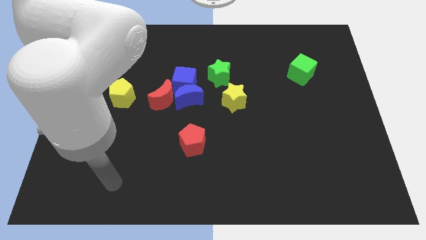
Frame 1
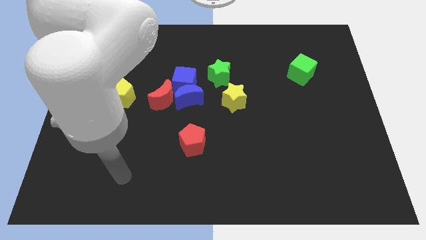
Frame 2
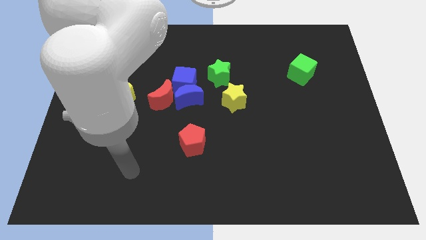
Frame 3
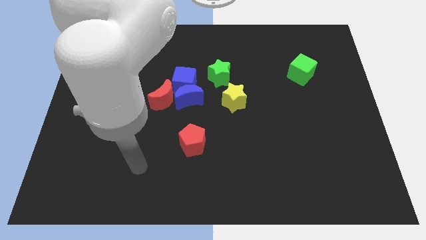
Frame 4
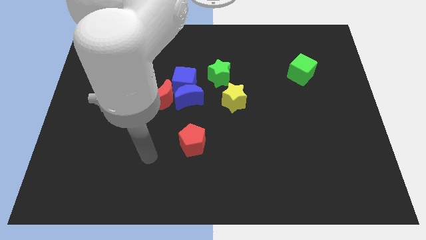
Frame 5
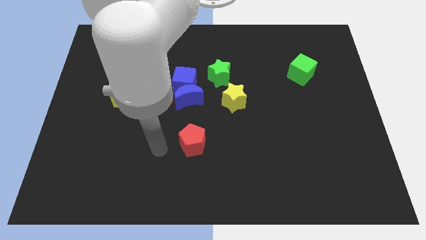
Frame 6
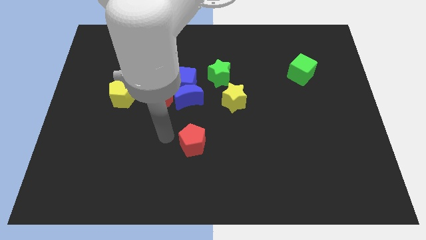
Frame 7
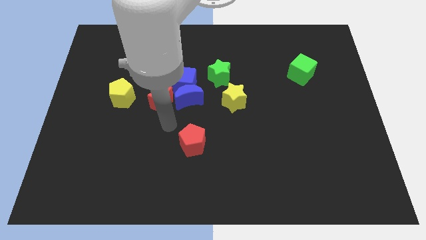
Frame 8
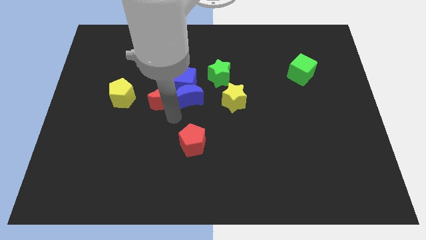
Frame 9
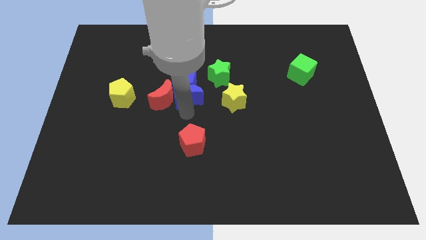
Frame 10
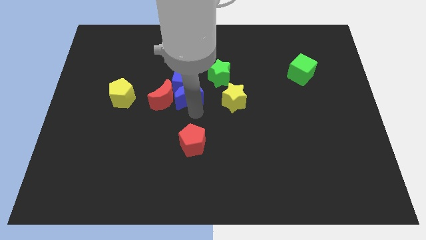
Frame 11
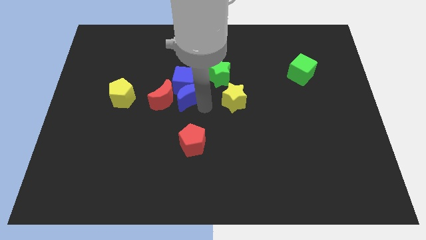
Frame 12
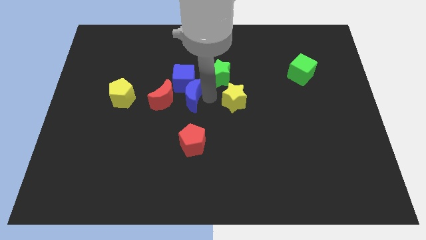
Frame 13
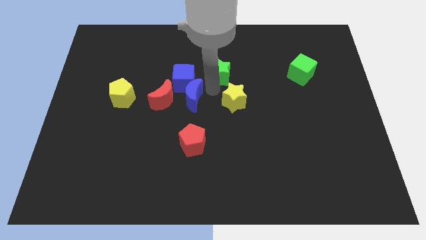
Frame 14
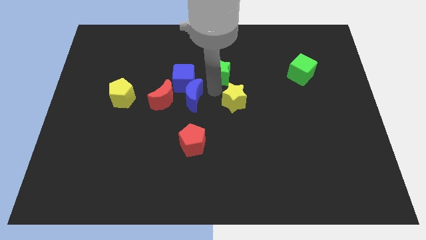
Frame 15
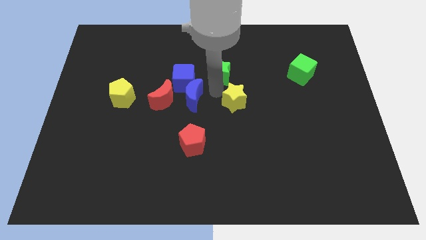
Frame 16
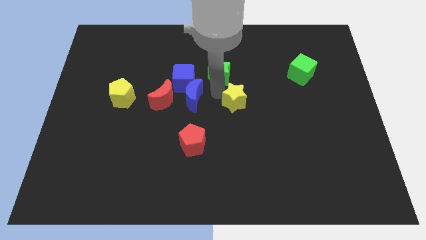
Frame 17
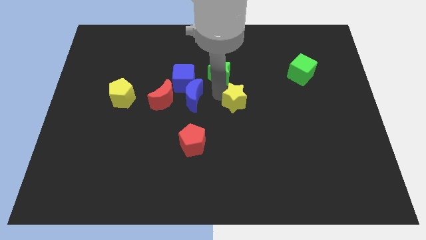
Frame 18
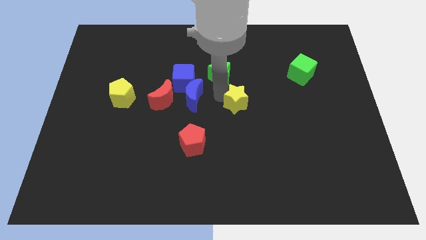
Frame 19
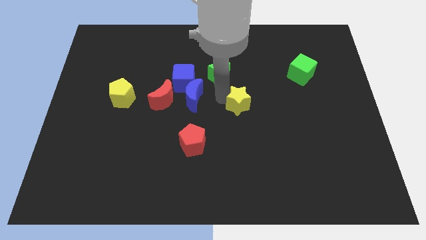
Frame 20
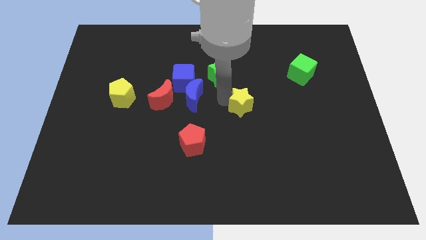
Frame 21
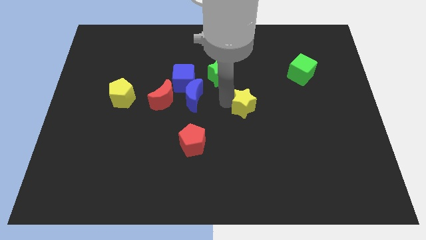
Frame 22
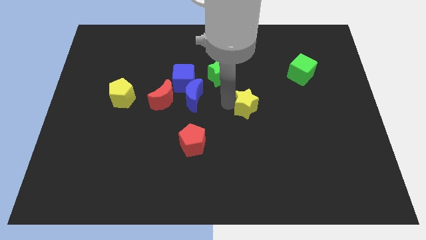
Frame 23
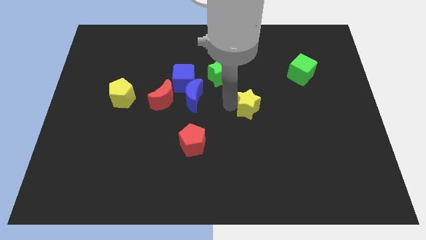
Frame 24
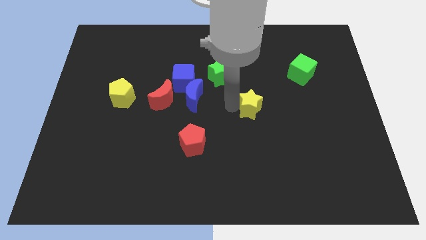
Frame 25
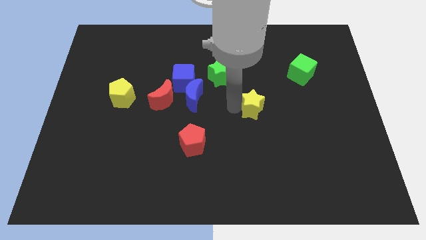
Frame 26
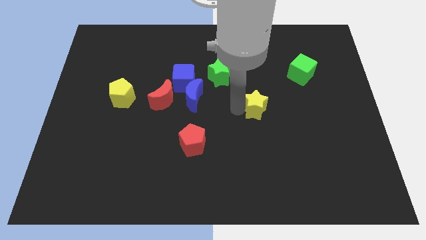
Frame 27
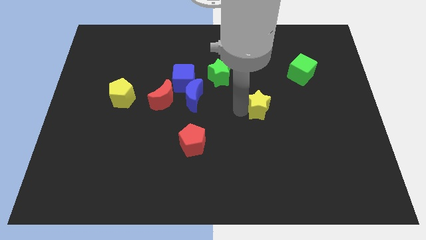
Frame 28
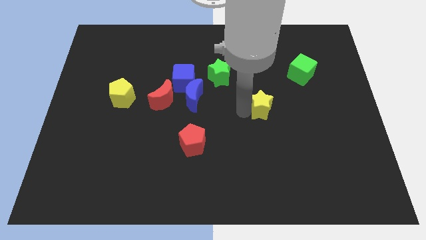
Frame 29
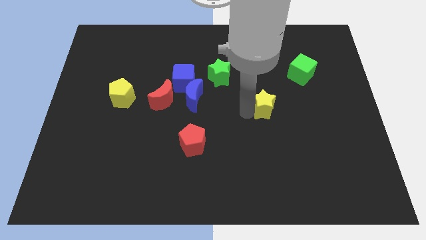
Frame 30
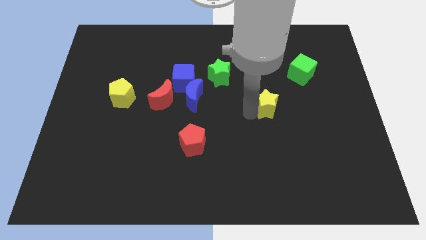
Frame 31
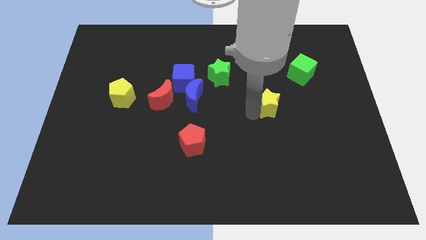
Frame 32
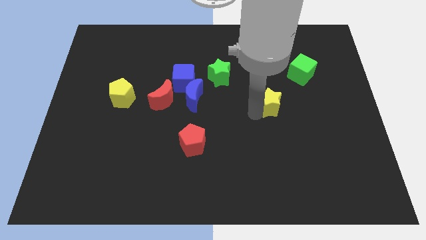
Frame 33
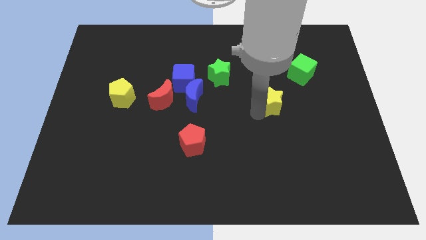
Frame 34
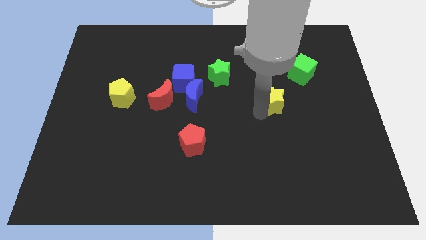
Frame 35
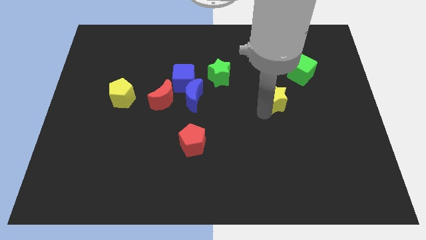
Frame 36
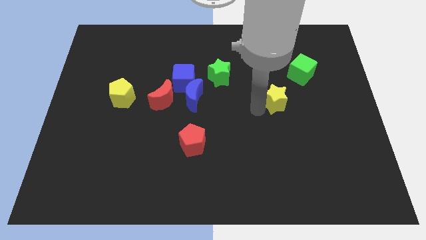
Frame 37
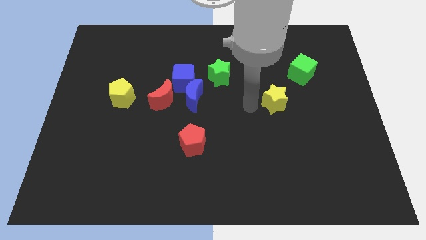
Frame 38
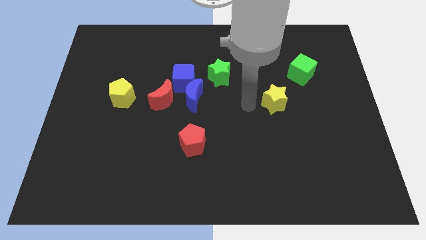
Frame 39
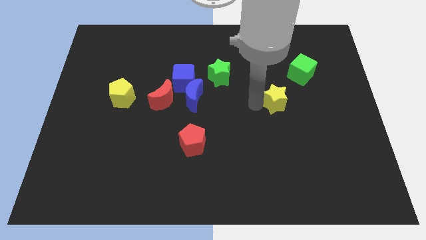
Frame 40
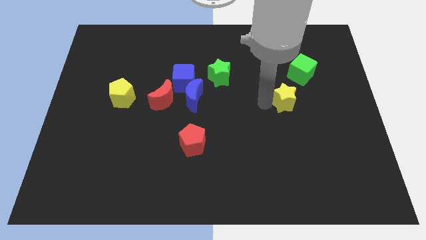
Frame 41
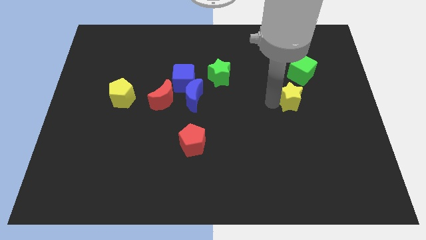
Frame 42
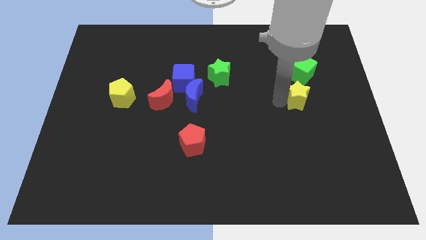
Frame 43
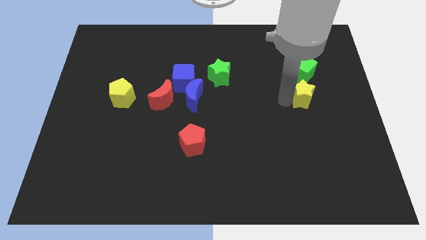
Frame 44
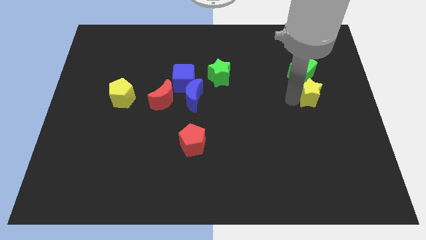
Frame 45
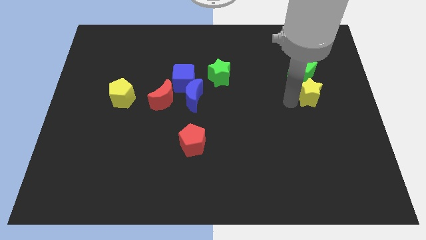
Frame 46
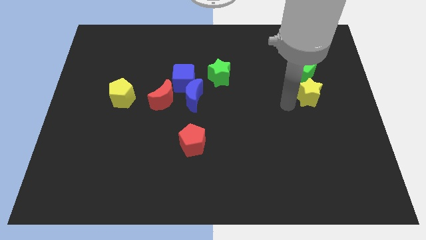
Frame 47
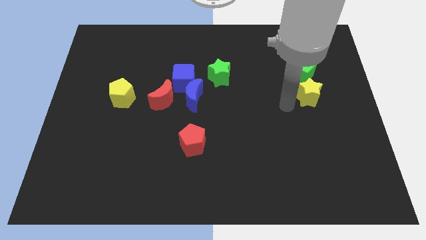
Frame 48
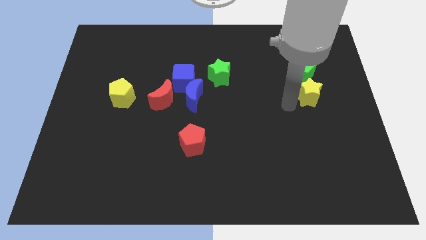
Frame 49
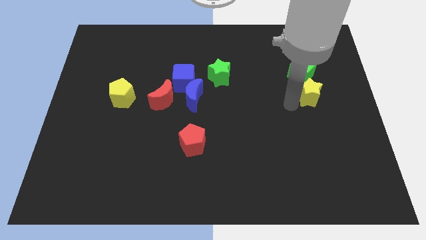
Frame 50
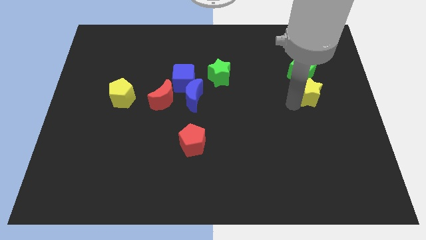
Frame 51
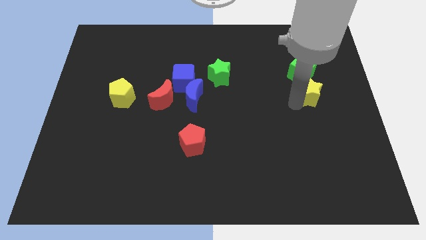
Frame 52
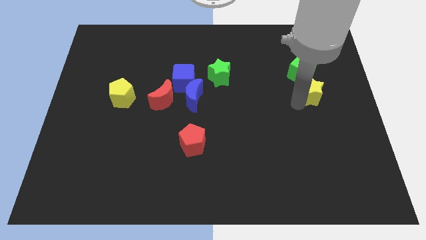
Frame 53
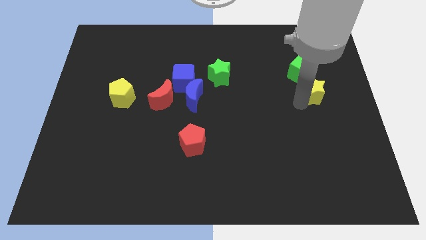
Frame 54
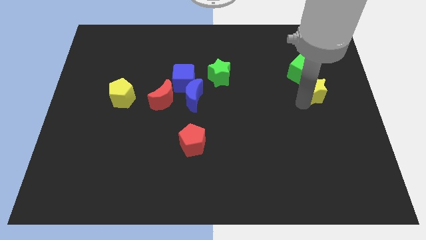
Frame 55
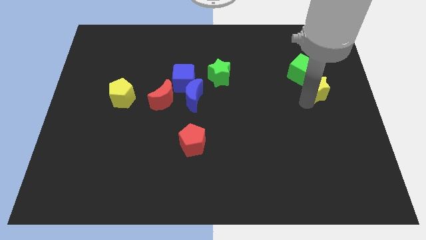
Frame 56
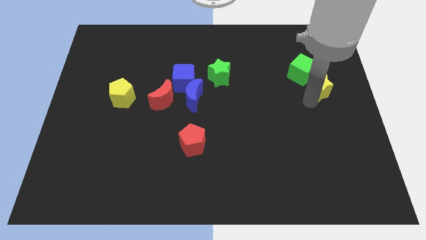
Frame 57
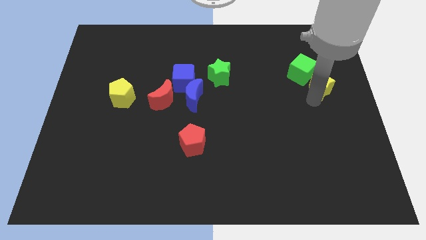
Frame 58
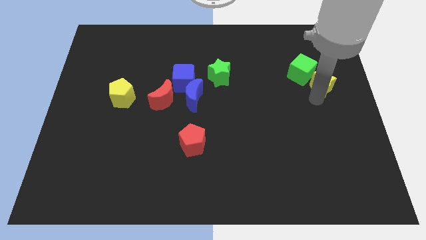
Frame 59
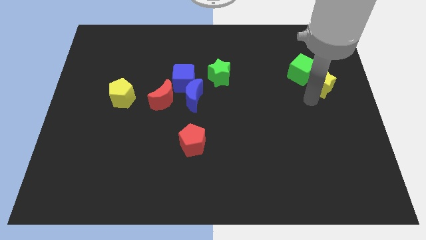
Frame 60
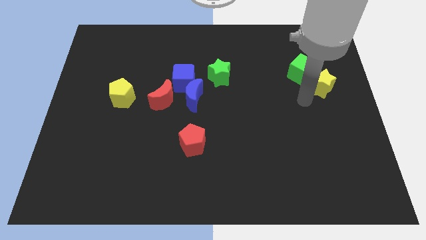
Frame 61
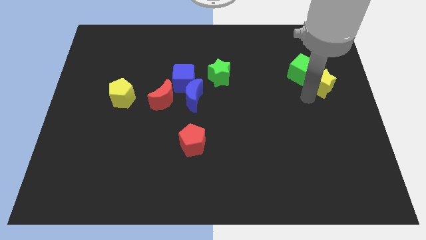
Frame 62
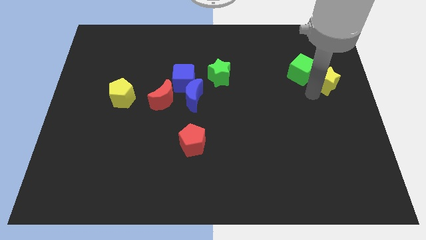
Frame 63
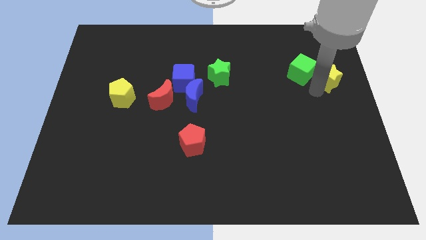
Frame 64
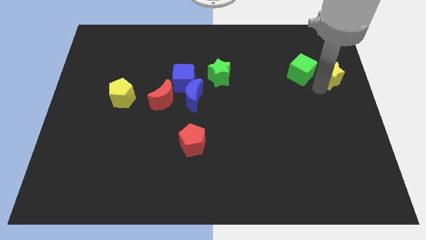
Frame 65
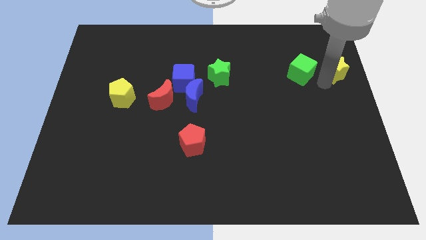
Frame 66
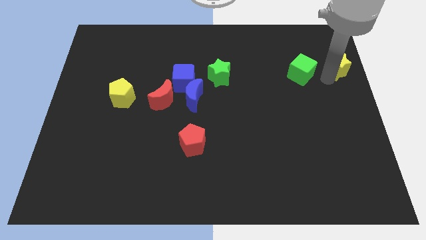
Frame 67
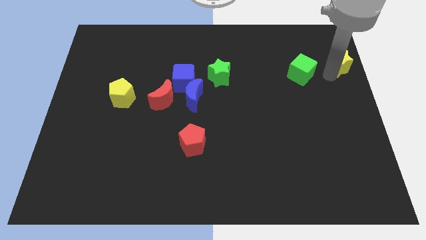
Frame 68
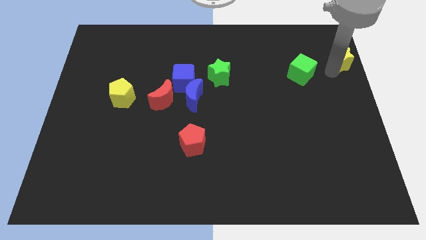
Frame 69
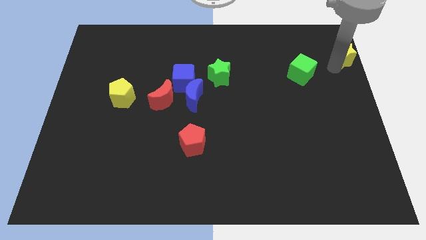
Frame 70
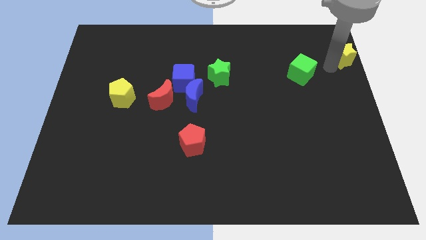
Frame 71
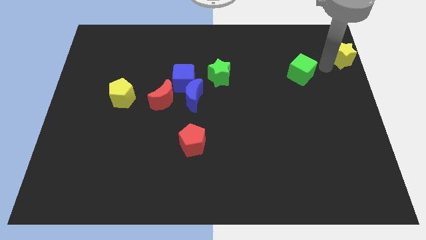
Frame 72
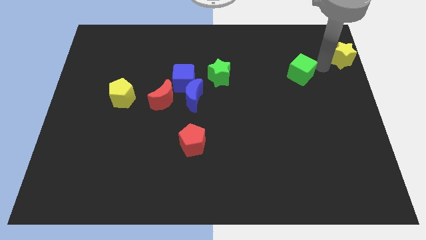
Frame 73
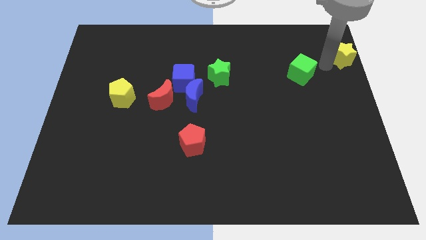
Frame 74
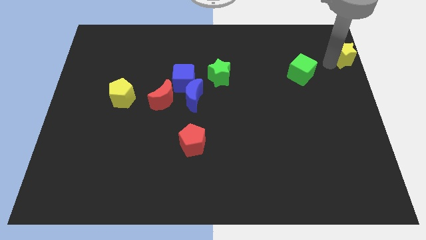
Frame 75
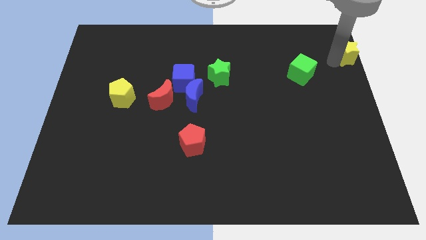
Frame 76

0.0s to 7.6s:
slide the yellow star to the top right of the board
